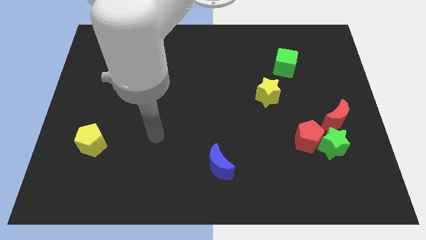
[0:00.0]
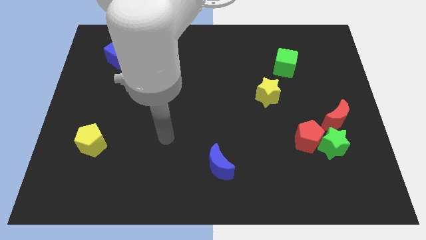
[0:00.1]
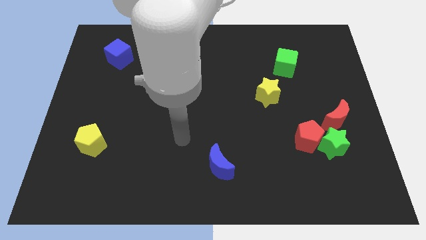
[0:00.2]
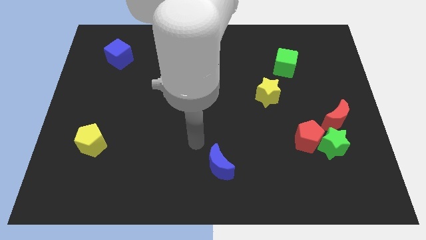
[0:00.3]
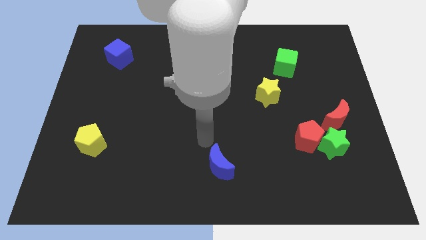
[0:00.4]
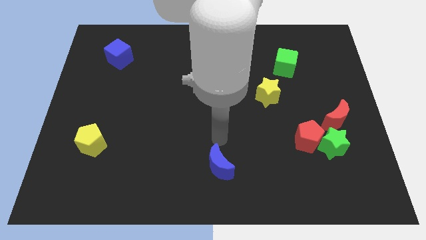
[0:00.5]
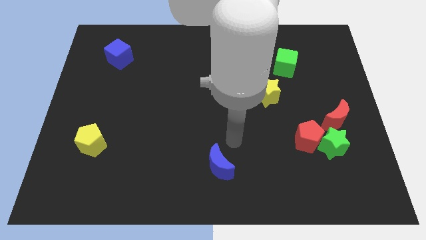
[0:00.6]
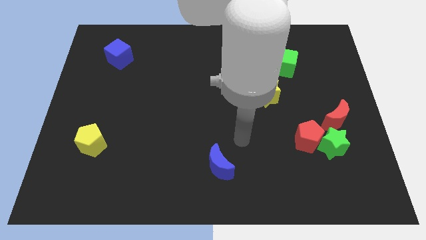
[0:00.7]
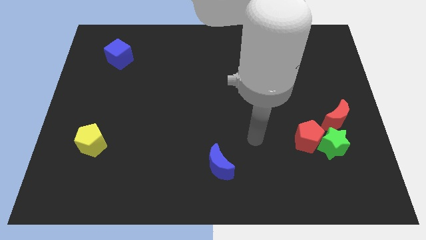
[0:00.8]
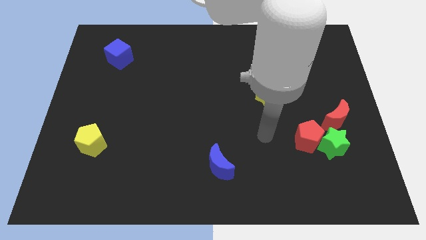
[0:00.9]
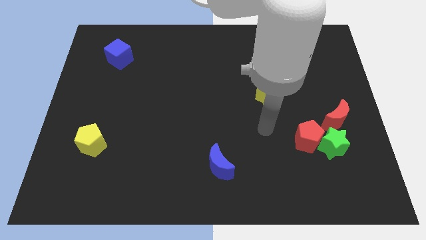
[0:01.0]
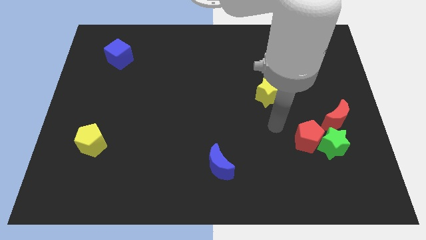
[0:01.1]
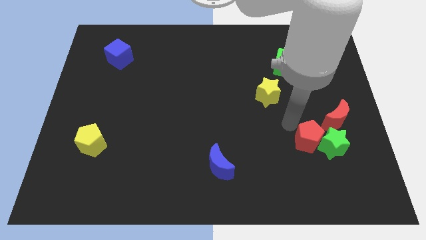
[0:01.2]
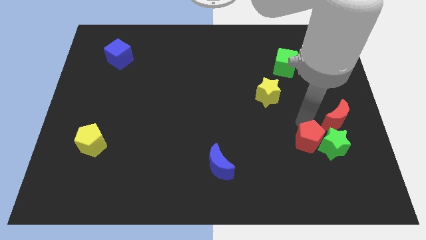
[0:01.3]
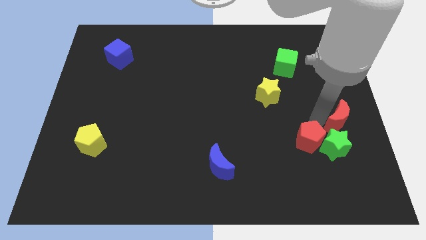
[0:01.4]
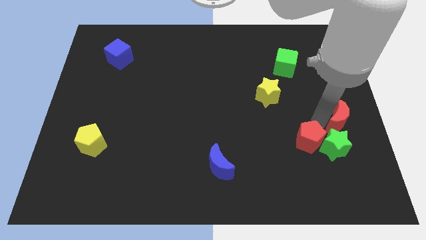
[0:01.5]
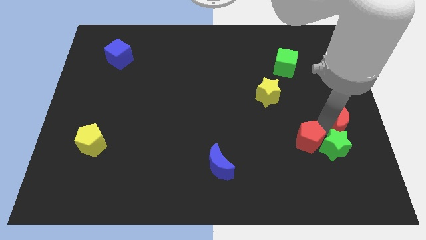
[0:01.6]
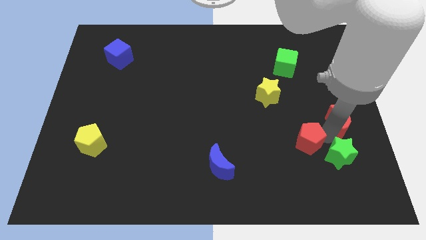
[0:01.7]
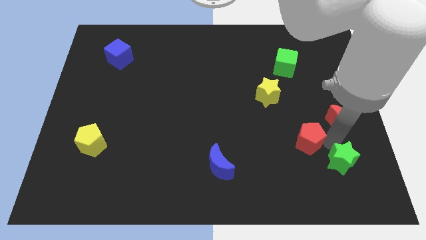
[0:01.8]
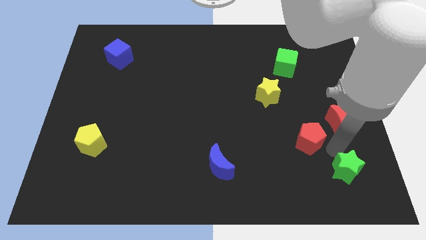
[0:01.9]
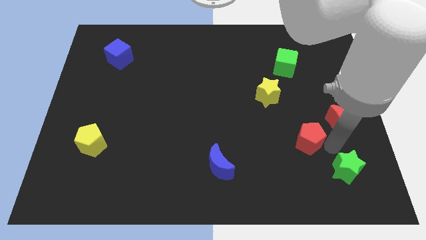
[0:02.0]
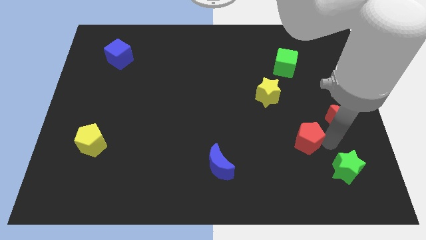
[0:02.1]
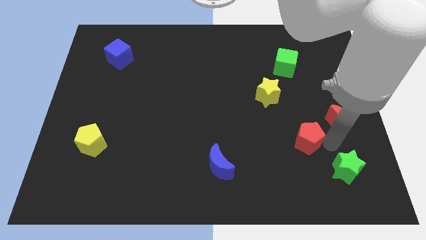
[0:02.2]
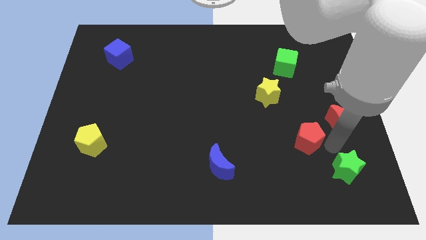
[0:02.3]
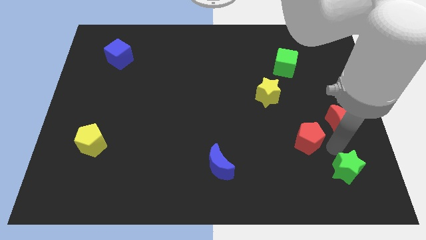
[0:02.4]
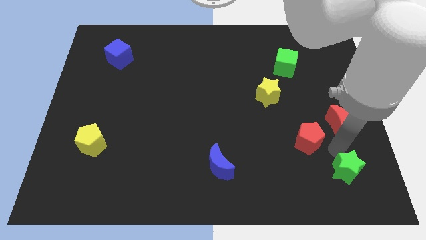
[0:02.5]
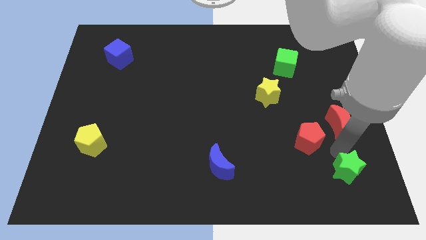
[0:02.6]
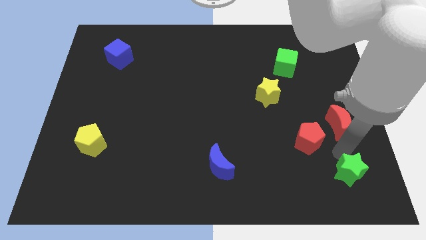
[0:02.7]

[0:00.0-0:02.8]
pull the green star apart from the red pentagon and red moon

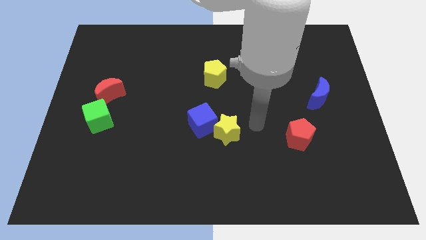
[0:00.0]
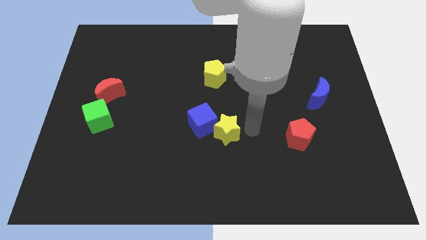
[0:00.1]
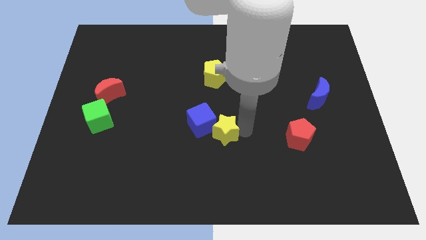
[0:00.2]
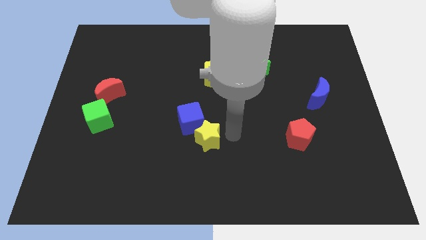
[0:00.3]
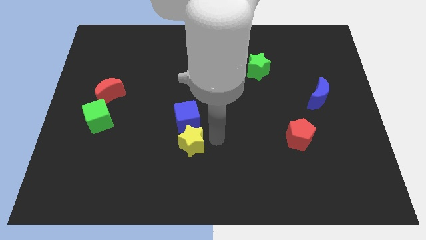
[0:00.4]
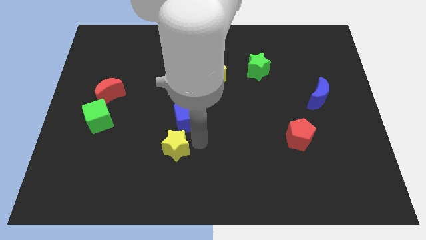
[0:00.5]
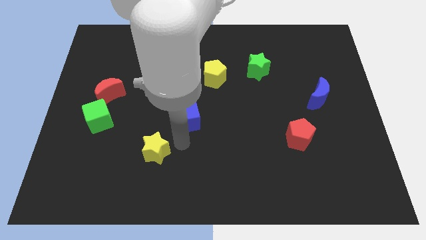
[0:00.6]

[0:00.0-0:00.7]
separate the blue cube from the yellow star

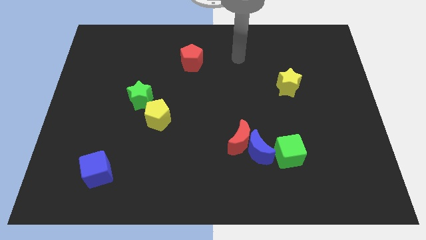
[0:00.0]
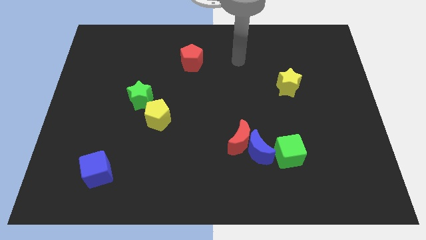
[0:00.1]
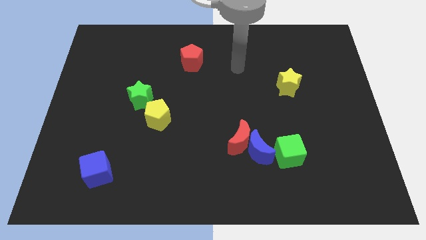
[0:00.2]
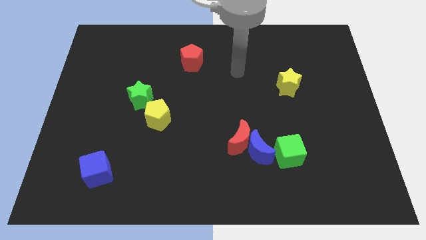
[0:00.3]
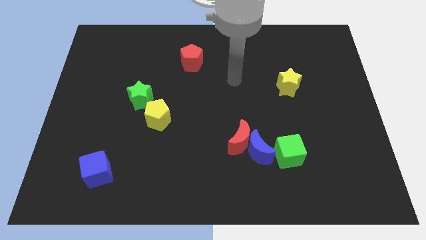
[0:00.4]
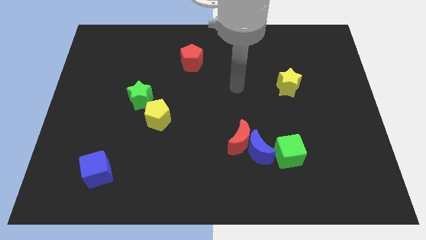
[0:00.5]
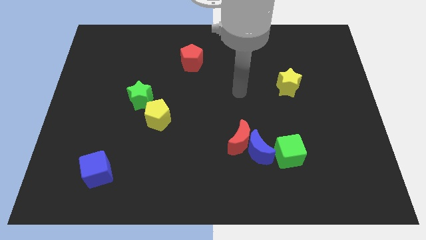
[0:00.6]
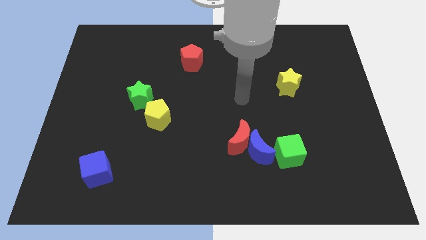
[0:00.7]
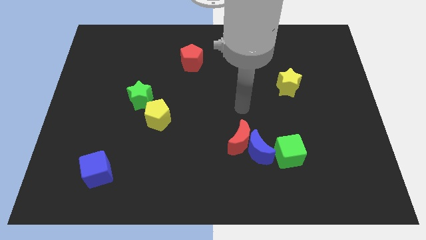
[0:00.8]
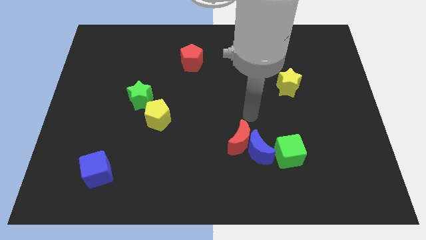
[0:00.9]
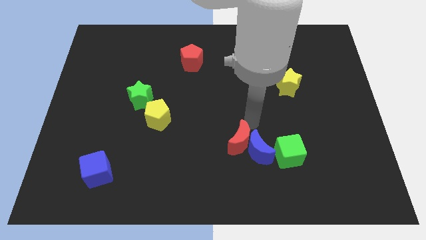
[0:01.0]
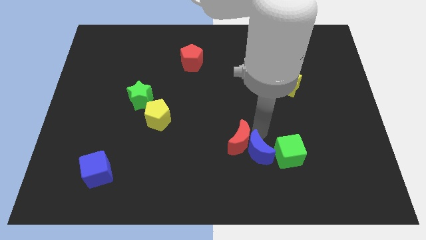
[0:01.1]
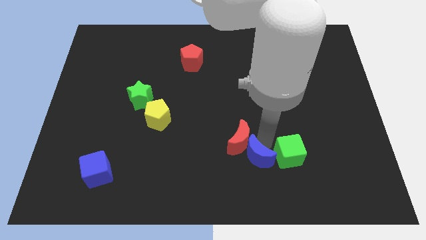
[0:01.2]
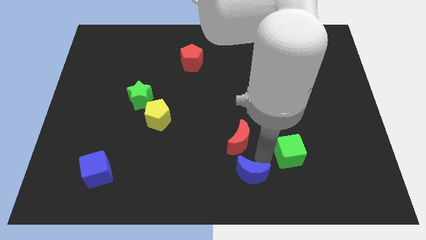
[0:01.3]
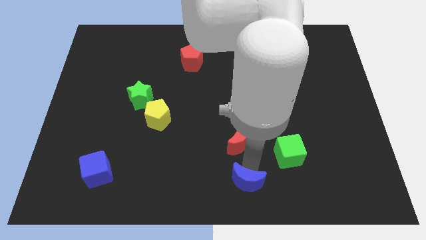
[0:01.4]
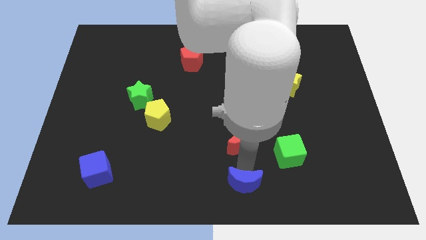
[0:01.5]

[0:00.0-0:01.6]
pull the red moon apart from the blue moon

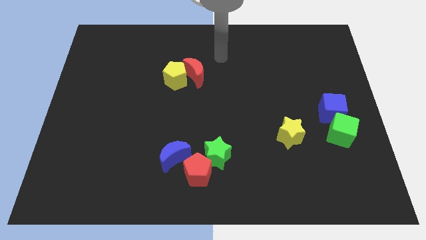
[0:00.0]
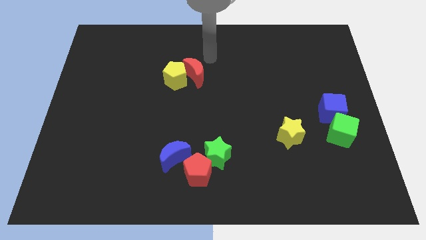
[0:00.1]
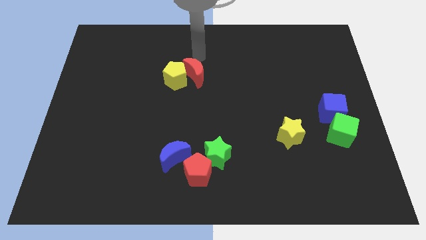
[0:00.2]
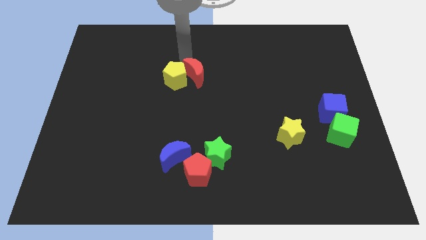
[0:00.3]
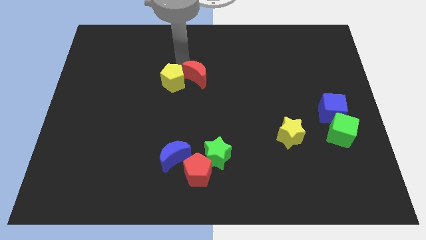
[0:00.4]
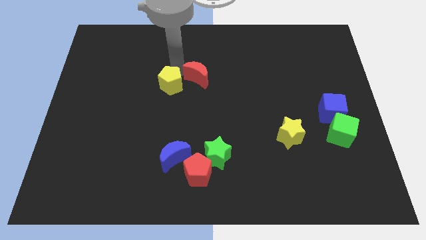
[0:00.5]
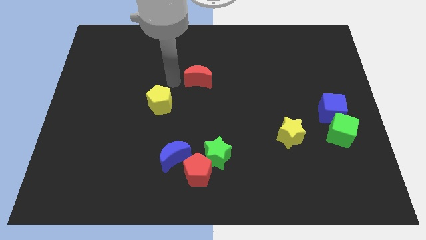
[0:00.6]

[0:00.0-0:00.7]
separate the red moon from the yellow pentagon

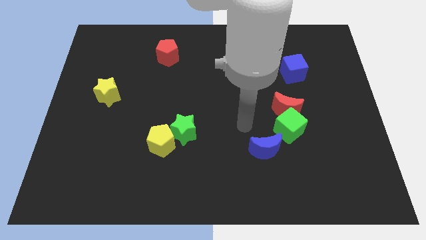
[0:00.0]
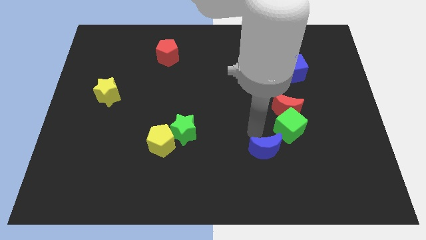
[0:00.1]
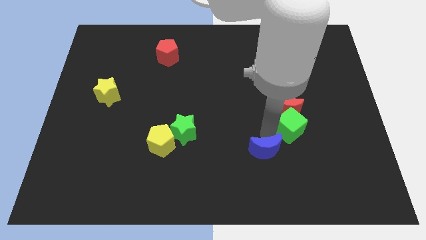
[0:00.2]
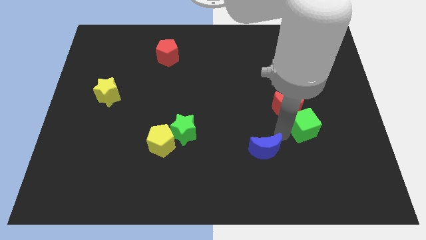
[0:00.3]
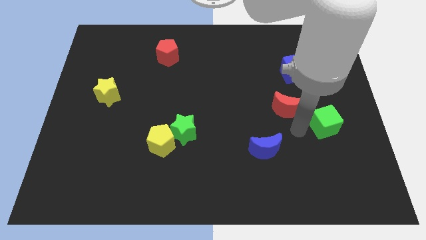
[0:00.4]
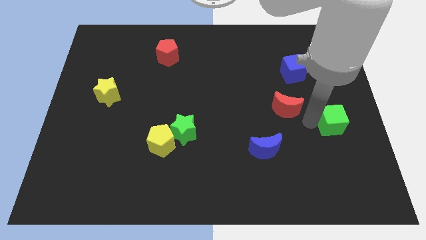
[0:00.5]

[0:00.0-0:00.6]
pull the red moon apart from the green cube

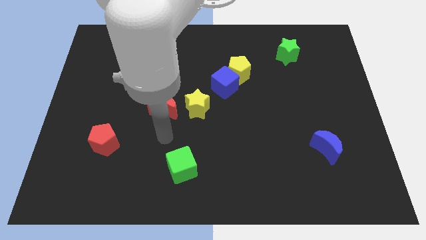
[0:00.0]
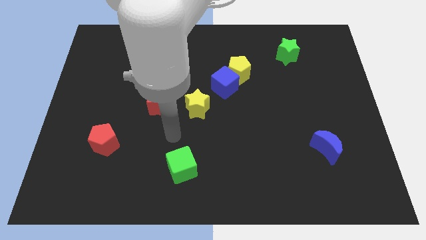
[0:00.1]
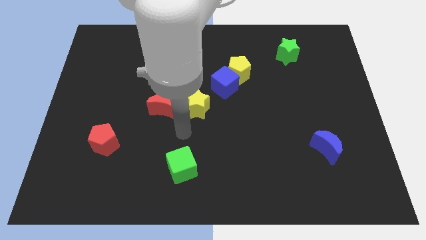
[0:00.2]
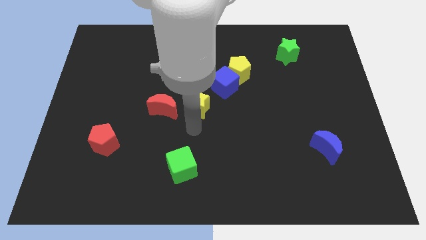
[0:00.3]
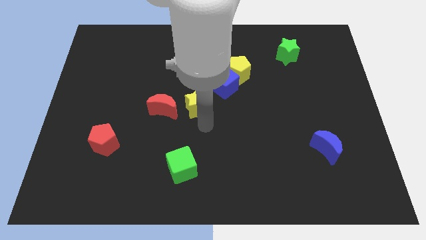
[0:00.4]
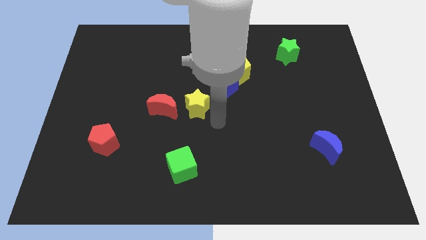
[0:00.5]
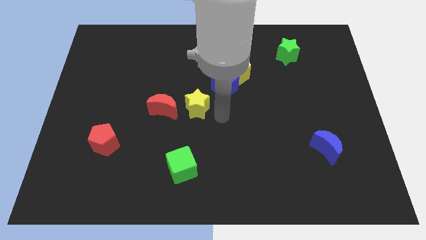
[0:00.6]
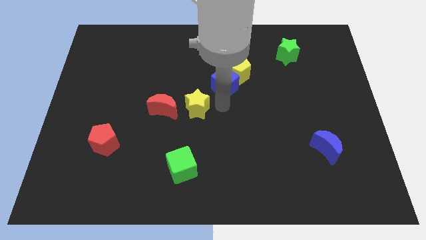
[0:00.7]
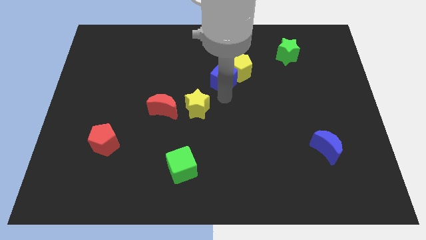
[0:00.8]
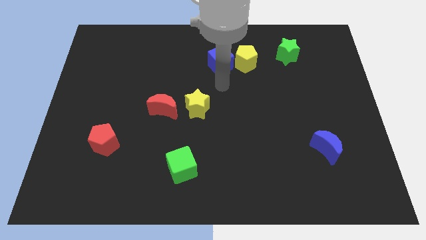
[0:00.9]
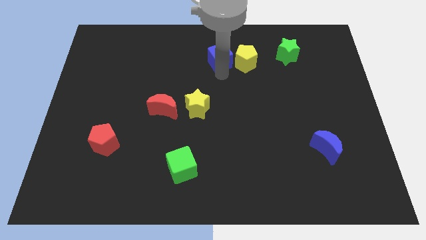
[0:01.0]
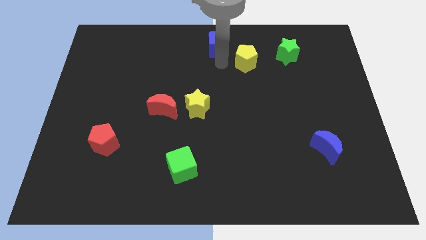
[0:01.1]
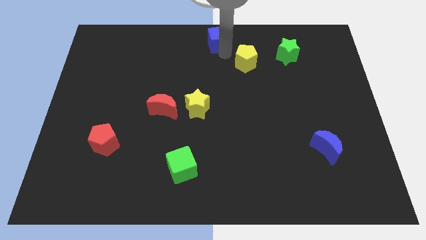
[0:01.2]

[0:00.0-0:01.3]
move the yellow pentagon away from the blue cube

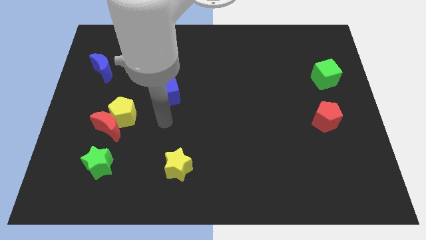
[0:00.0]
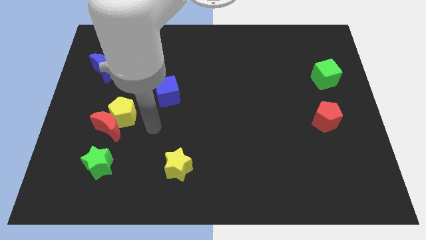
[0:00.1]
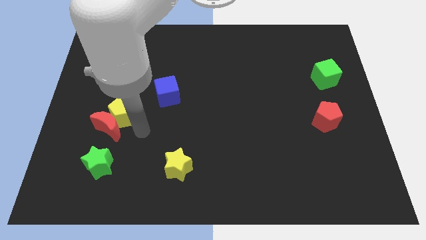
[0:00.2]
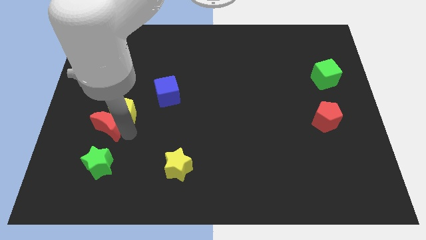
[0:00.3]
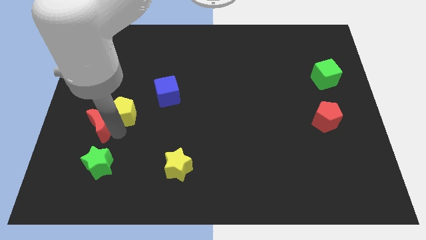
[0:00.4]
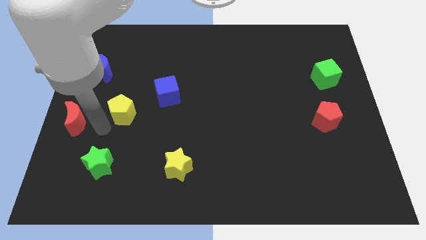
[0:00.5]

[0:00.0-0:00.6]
separate the yellow pentagon from the red moon

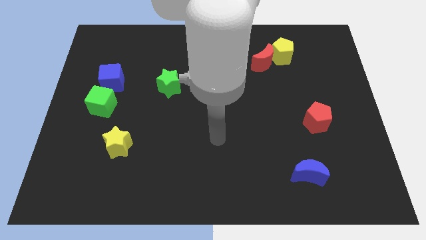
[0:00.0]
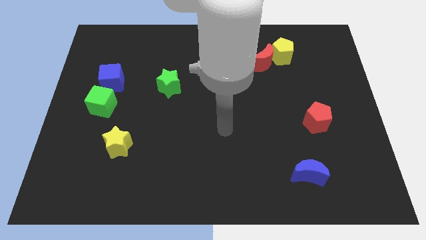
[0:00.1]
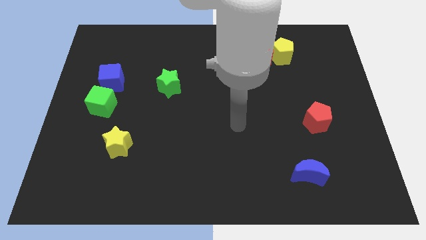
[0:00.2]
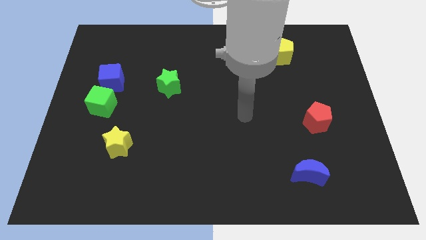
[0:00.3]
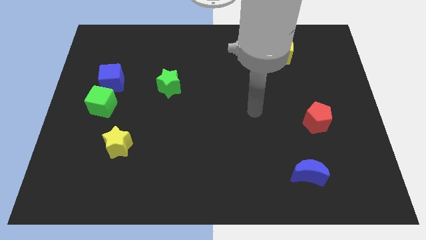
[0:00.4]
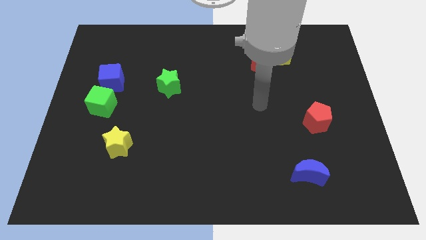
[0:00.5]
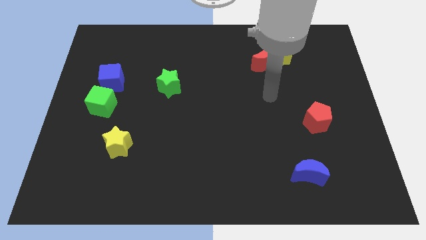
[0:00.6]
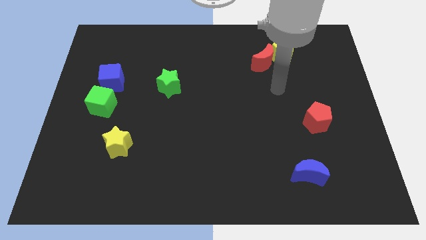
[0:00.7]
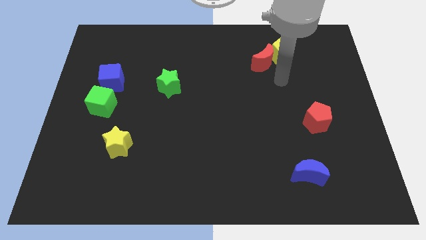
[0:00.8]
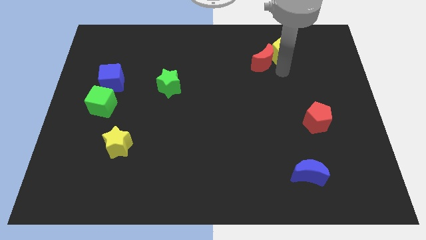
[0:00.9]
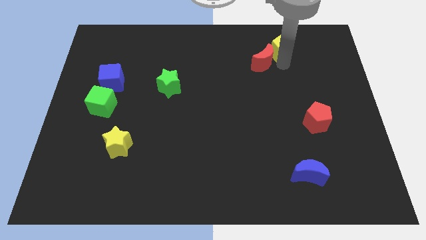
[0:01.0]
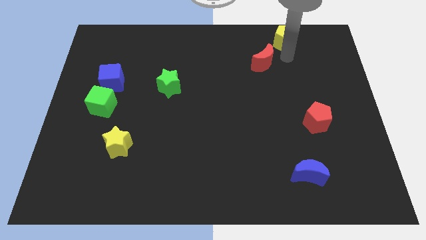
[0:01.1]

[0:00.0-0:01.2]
move the red moon away from the yellow pentagon
